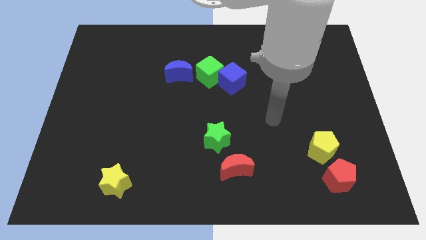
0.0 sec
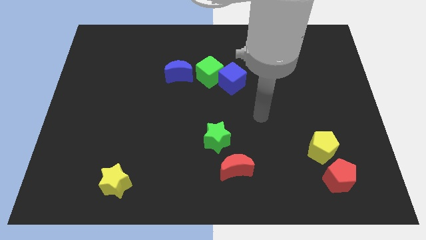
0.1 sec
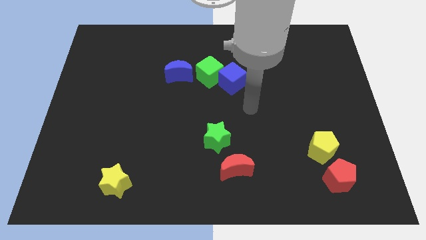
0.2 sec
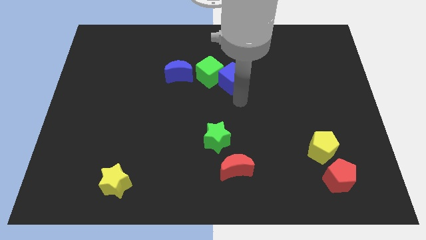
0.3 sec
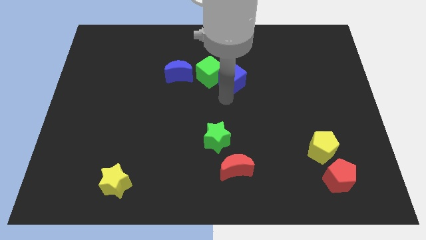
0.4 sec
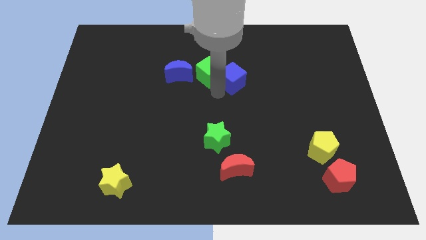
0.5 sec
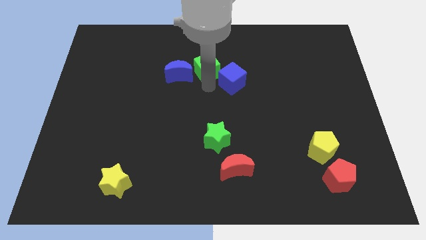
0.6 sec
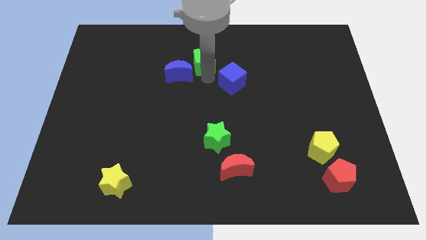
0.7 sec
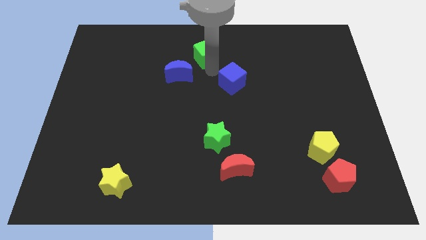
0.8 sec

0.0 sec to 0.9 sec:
pull the blue cube apart from the green cube

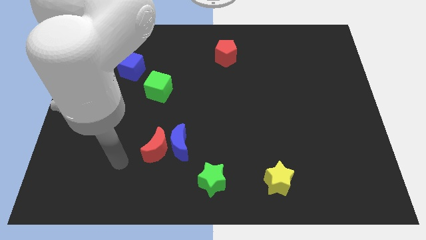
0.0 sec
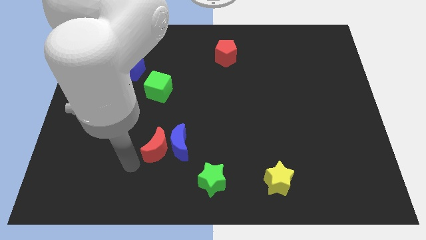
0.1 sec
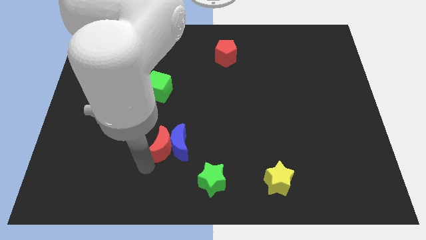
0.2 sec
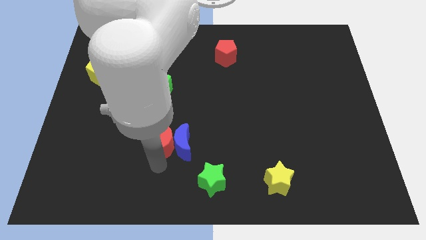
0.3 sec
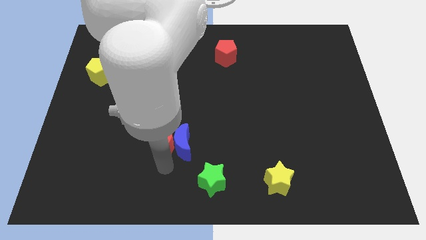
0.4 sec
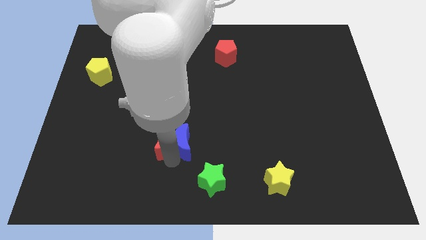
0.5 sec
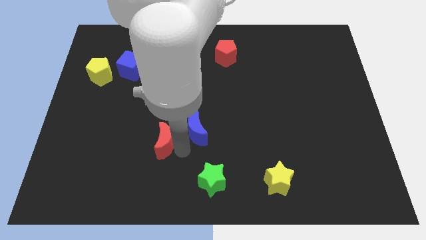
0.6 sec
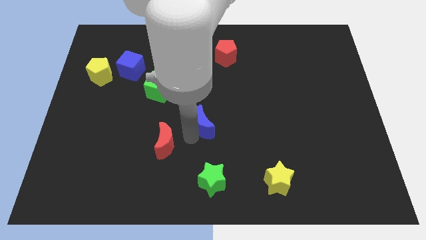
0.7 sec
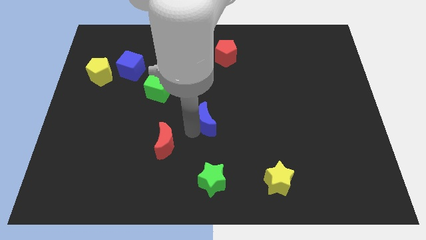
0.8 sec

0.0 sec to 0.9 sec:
separate the red moon from the blue moon

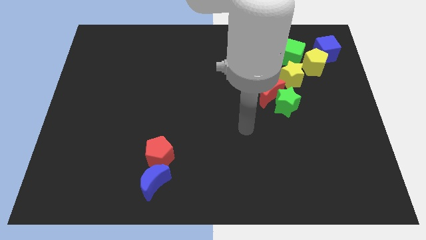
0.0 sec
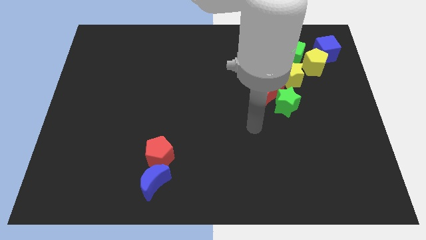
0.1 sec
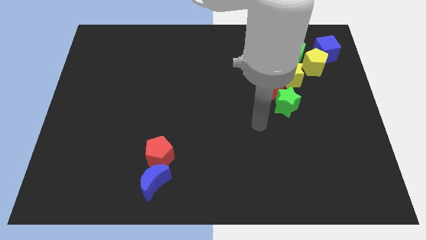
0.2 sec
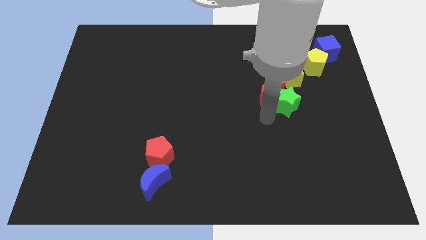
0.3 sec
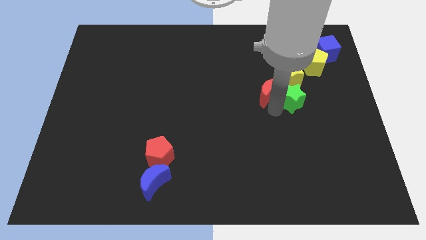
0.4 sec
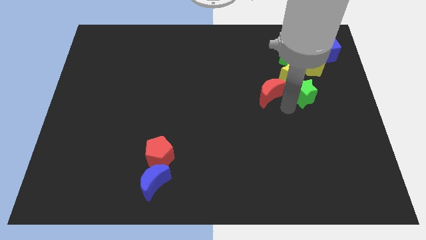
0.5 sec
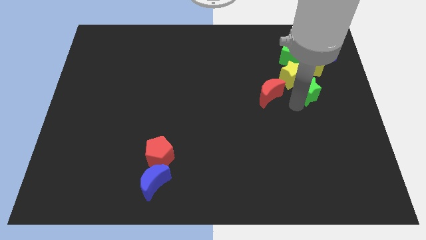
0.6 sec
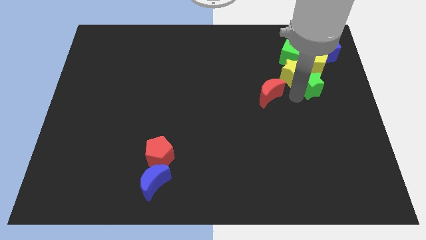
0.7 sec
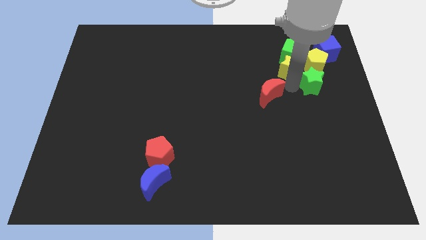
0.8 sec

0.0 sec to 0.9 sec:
pull the red moon apart from the green star and yellow star

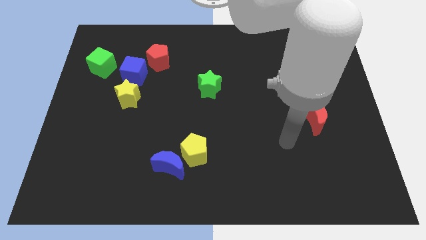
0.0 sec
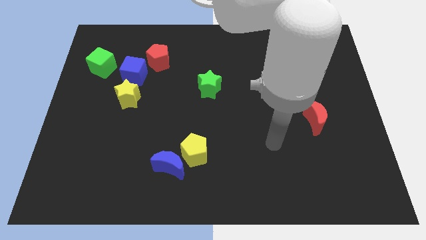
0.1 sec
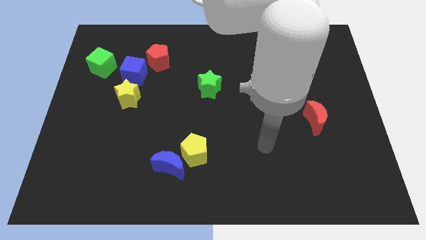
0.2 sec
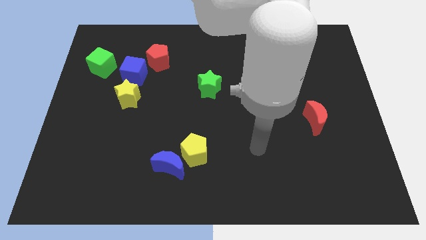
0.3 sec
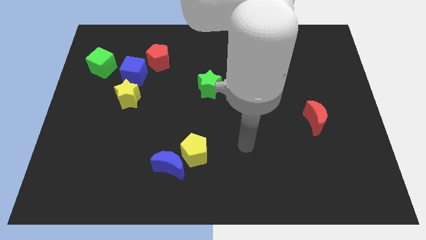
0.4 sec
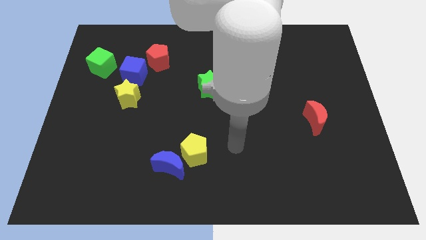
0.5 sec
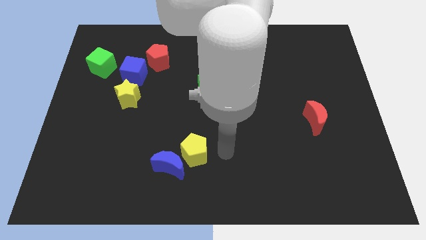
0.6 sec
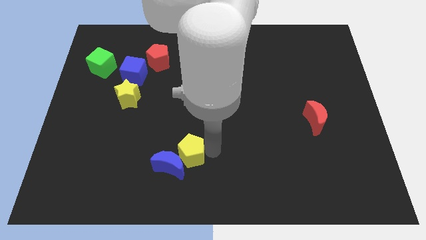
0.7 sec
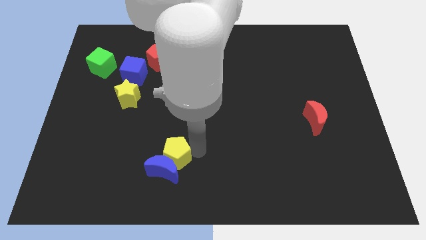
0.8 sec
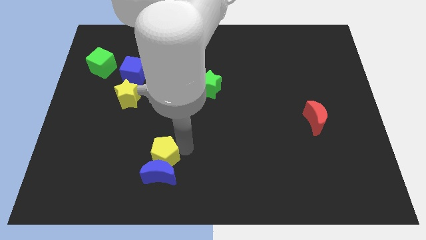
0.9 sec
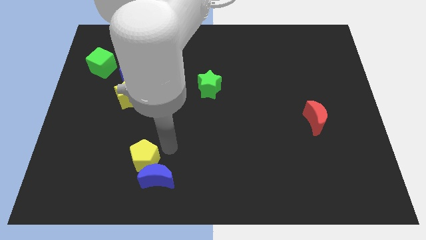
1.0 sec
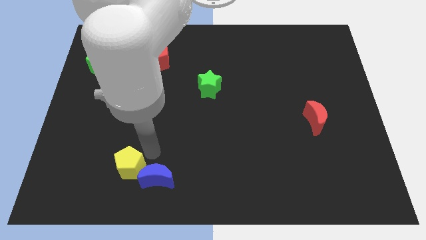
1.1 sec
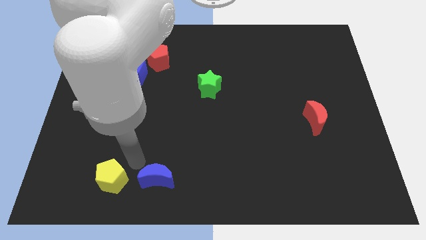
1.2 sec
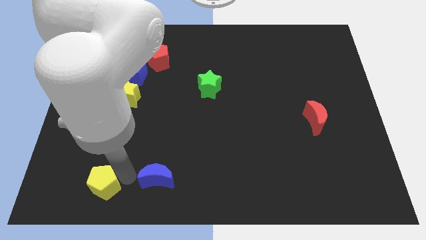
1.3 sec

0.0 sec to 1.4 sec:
move the blue moon away from the yellow pentagon

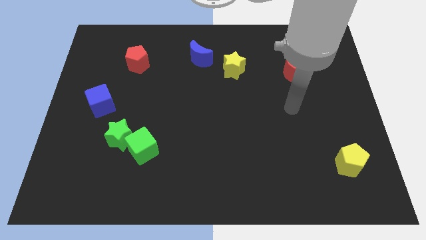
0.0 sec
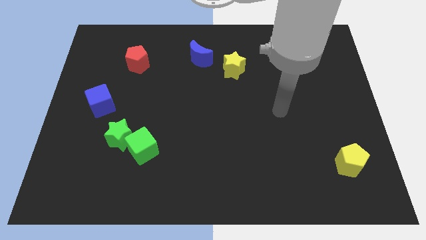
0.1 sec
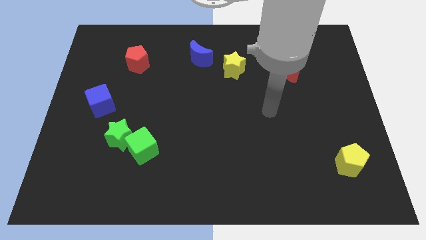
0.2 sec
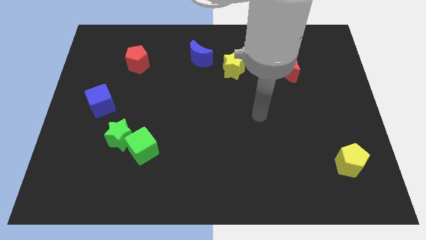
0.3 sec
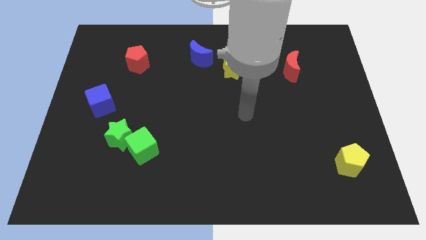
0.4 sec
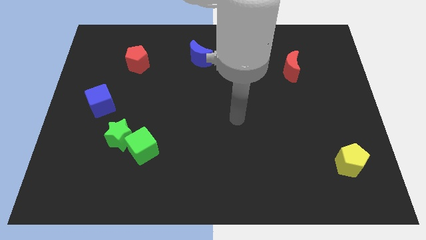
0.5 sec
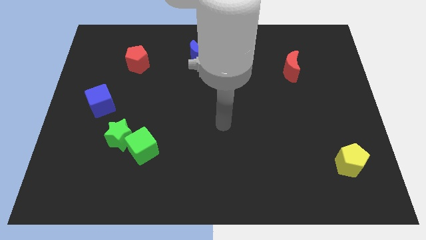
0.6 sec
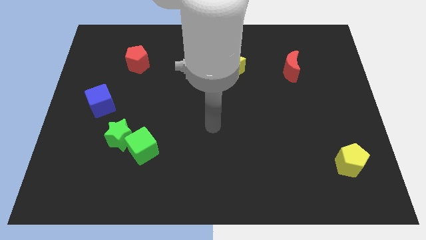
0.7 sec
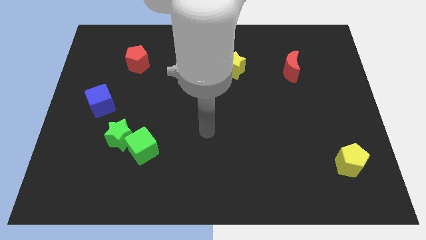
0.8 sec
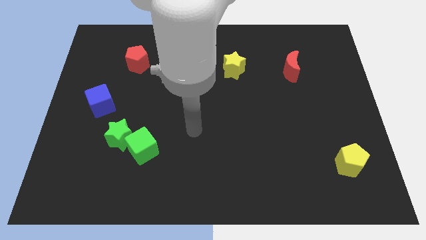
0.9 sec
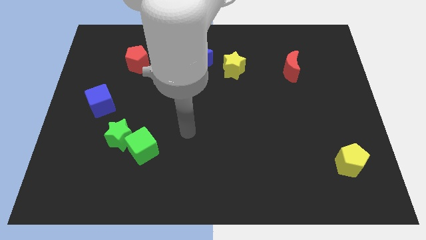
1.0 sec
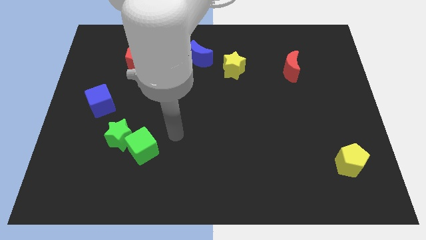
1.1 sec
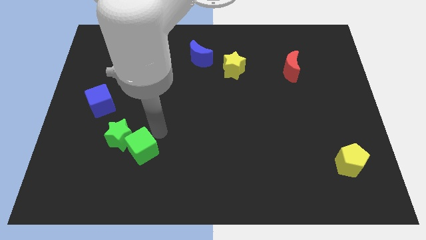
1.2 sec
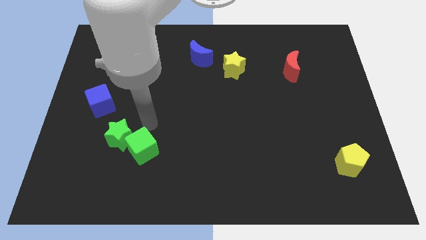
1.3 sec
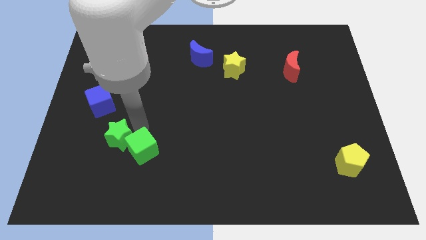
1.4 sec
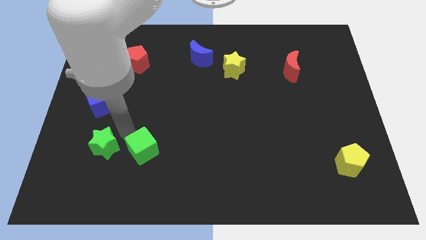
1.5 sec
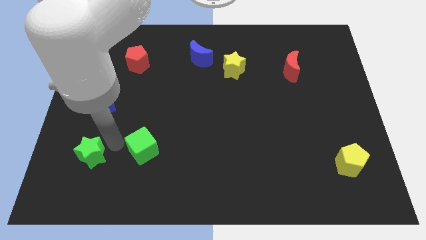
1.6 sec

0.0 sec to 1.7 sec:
pull the green cube apart from the green star

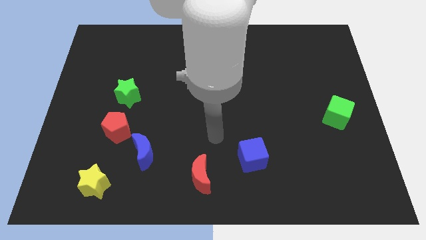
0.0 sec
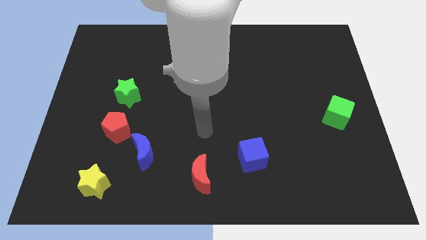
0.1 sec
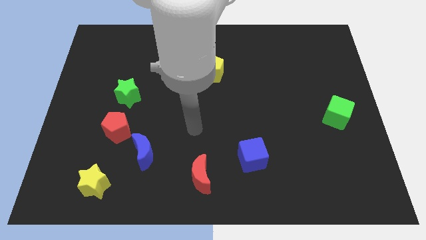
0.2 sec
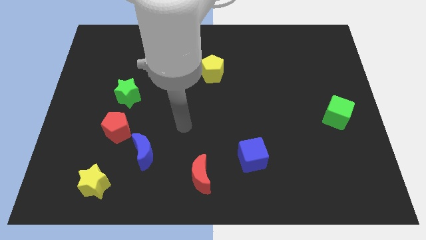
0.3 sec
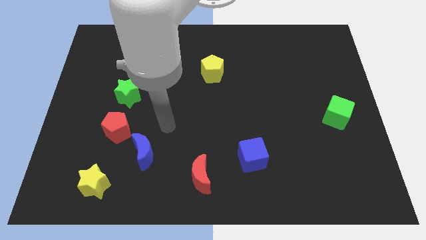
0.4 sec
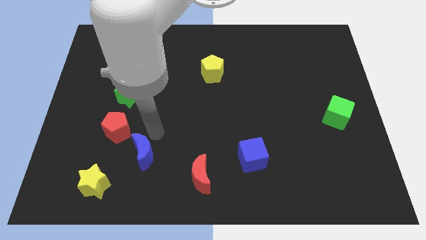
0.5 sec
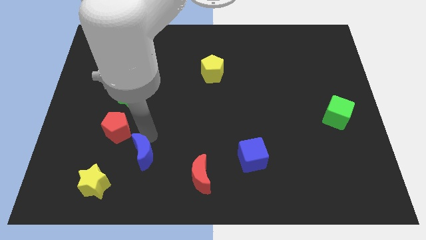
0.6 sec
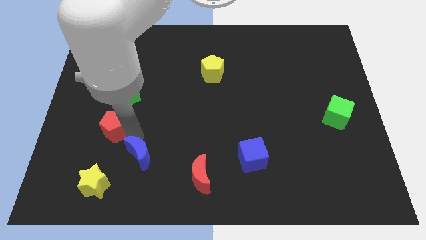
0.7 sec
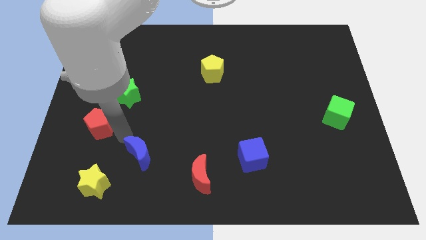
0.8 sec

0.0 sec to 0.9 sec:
pull the blue moon apart from the red pentagon

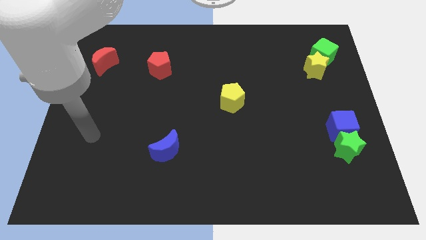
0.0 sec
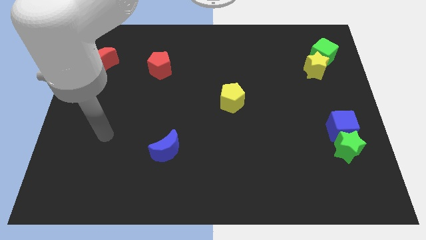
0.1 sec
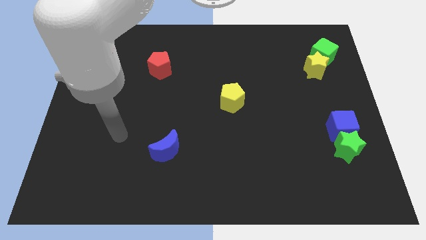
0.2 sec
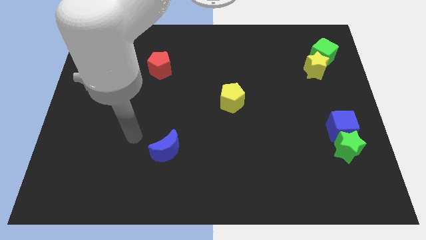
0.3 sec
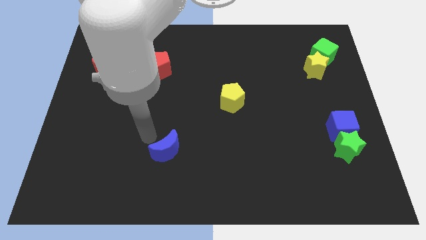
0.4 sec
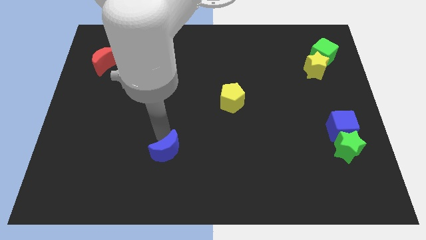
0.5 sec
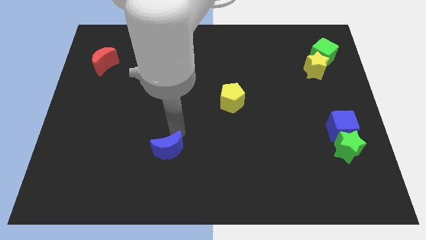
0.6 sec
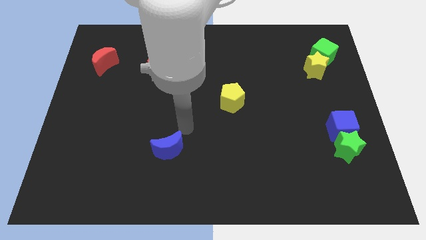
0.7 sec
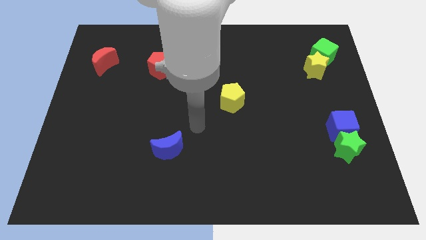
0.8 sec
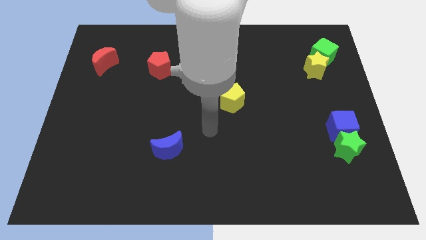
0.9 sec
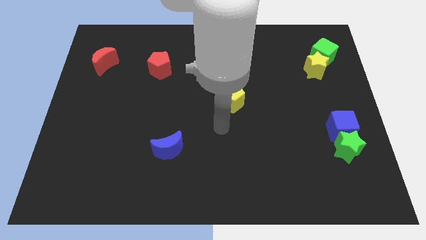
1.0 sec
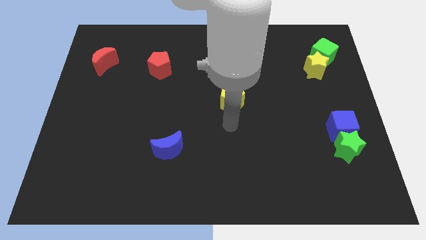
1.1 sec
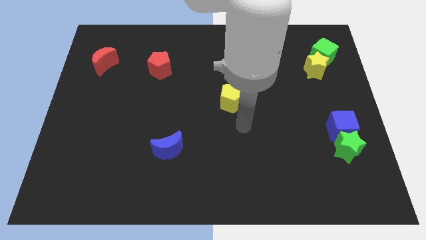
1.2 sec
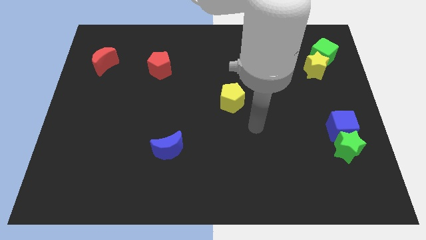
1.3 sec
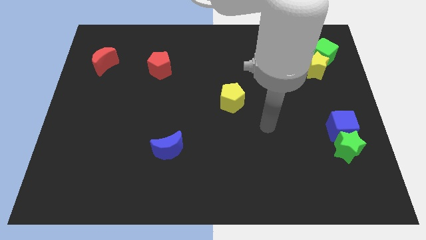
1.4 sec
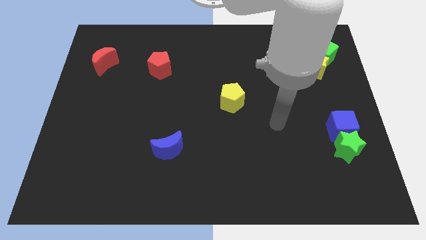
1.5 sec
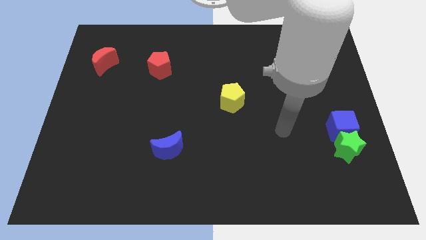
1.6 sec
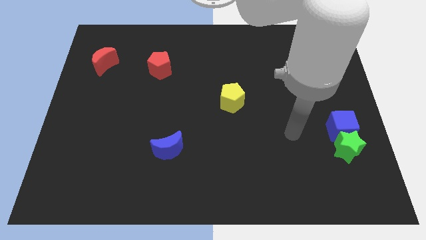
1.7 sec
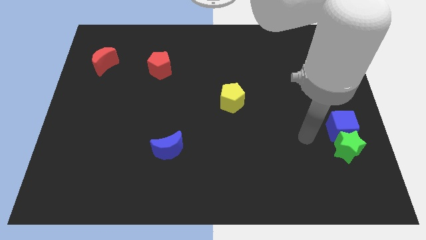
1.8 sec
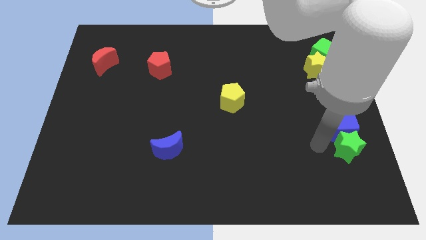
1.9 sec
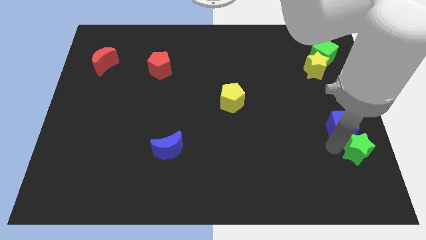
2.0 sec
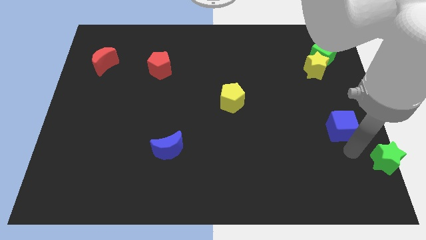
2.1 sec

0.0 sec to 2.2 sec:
move the blue cube away from the green star

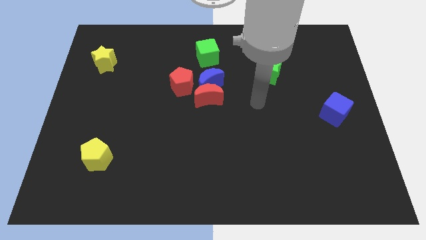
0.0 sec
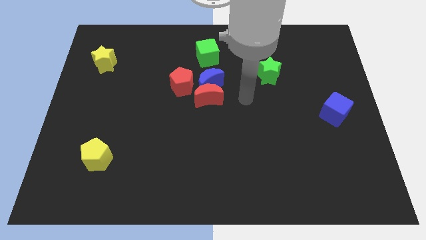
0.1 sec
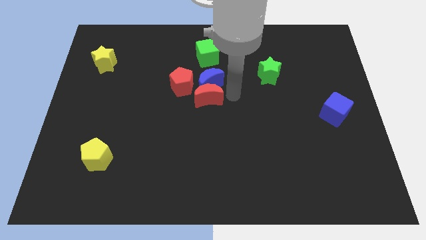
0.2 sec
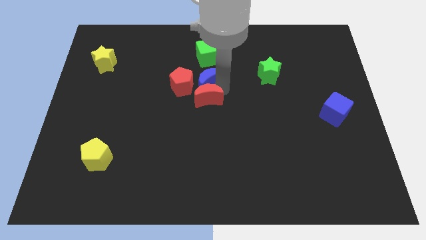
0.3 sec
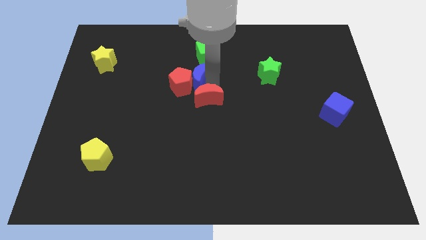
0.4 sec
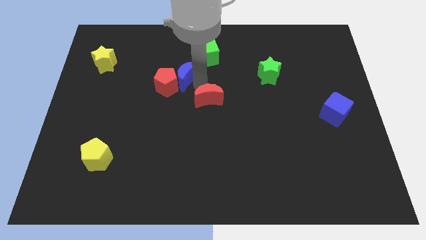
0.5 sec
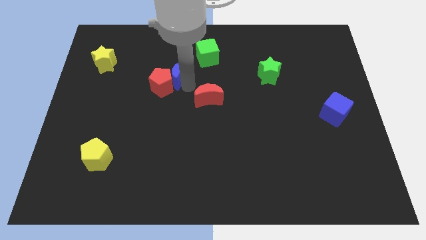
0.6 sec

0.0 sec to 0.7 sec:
pull the red moon apart from the blue moon and red pentagon
